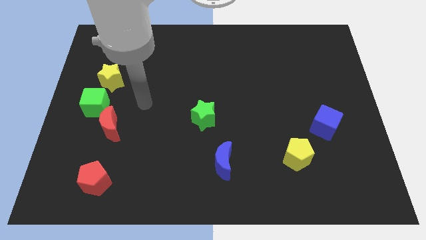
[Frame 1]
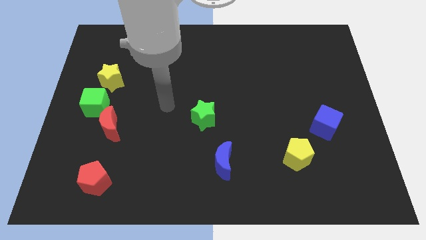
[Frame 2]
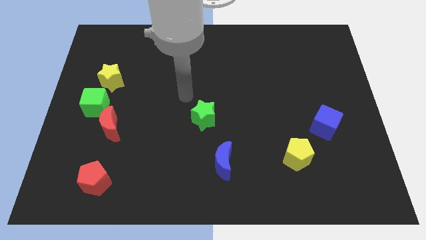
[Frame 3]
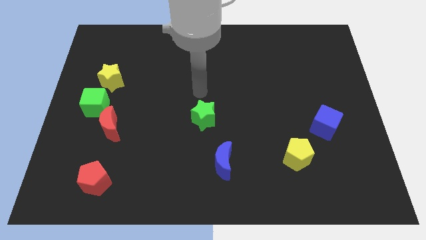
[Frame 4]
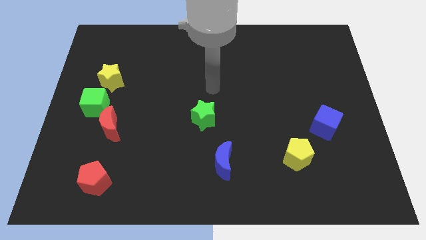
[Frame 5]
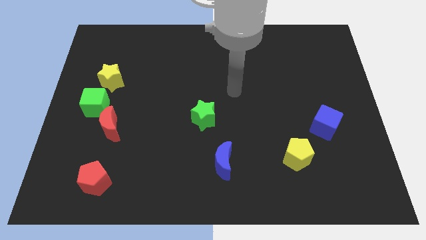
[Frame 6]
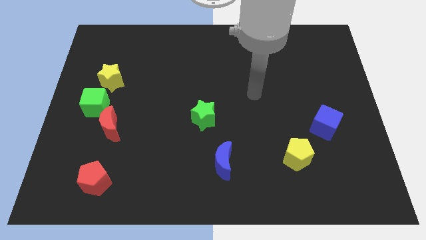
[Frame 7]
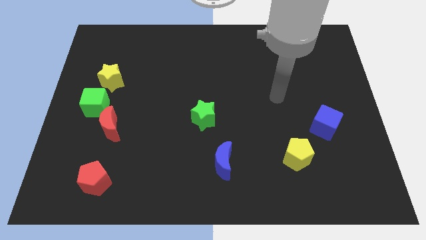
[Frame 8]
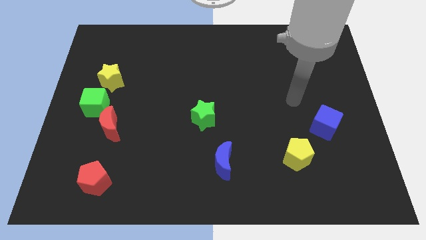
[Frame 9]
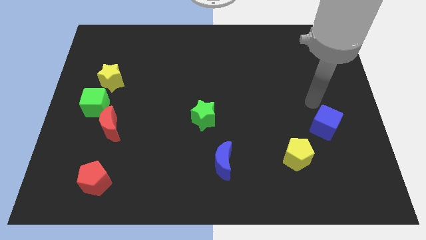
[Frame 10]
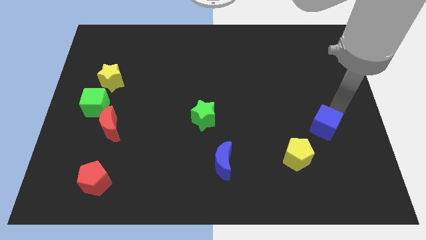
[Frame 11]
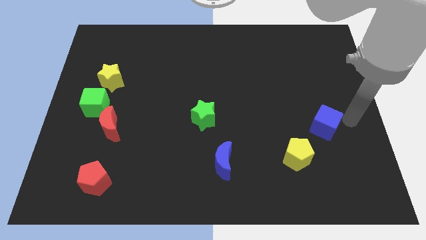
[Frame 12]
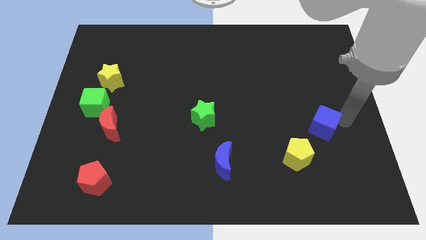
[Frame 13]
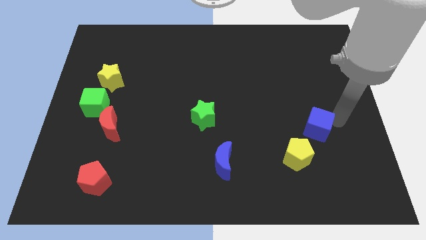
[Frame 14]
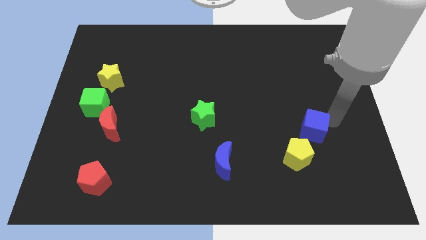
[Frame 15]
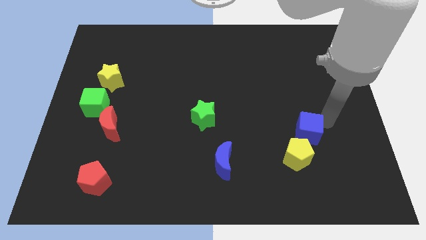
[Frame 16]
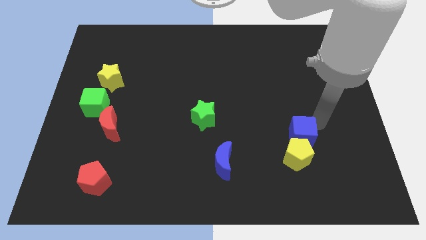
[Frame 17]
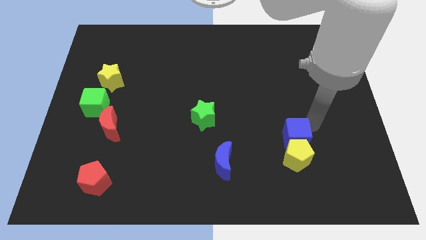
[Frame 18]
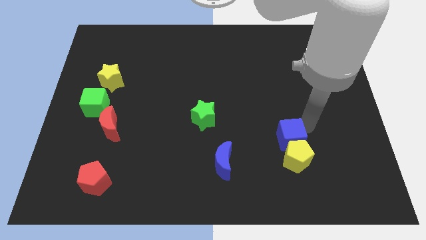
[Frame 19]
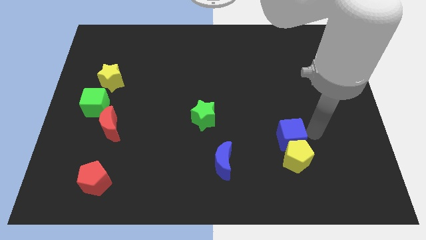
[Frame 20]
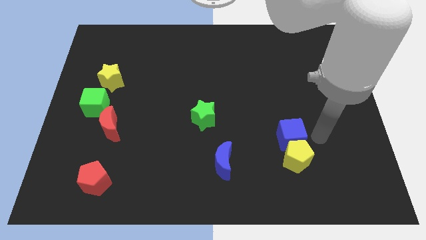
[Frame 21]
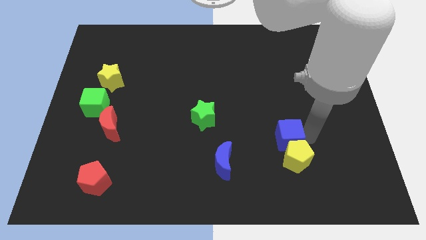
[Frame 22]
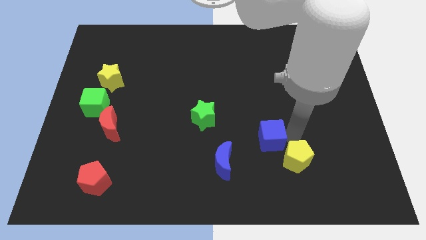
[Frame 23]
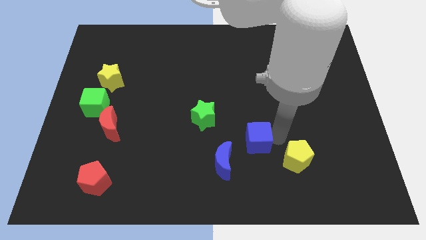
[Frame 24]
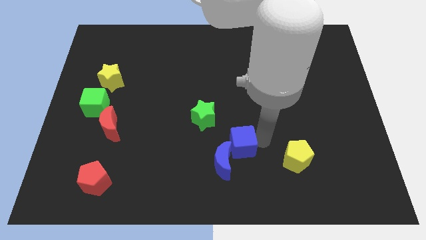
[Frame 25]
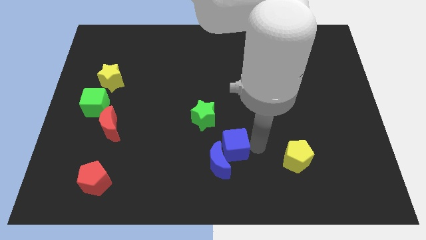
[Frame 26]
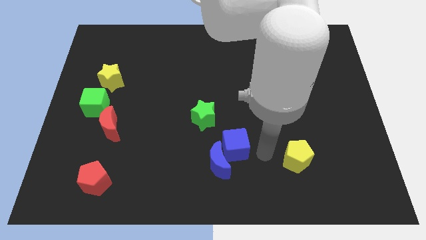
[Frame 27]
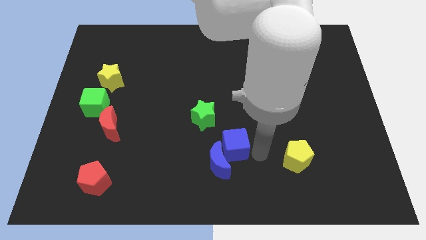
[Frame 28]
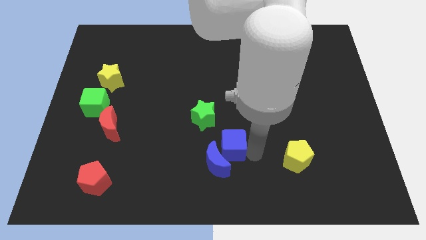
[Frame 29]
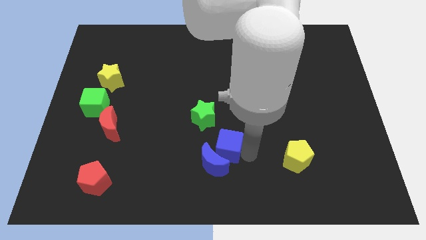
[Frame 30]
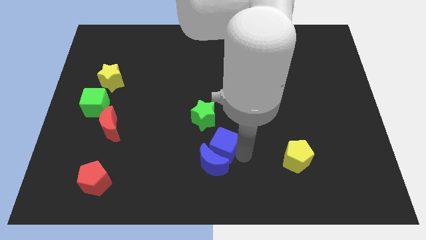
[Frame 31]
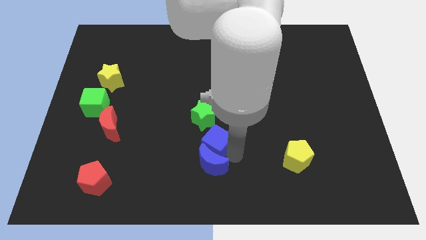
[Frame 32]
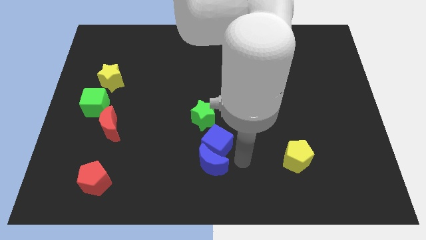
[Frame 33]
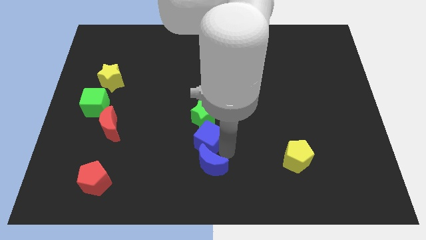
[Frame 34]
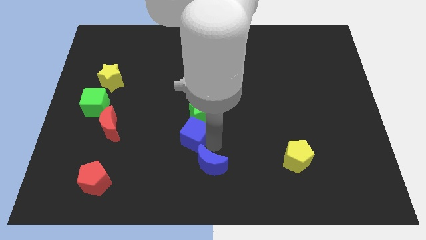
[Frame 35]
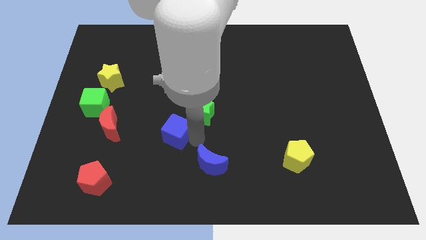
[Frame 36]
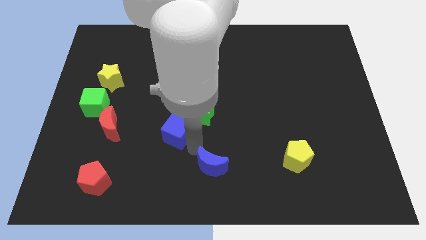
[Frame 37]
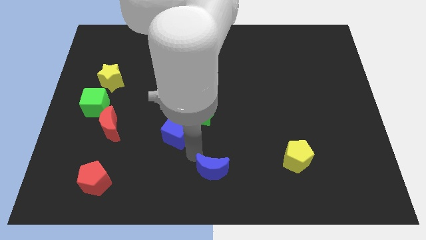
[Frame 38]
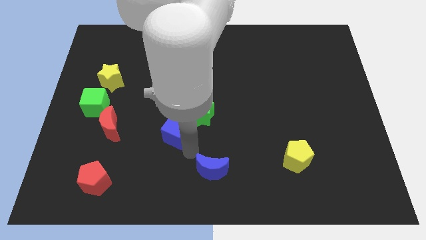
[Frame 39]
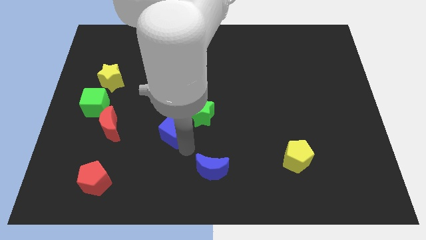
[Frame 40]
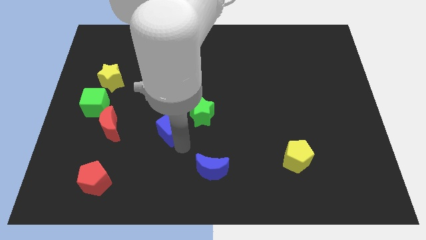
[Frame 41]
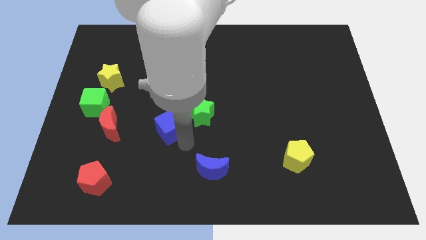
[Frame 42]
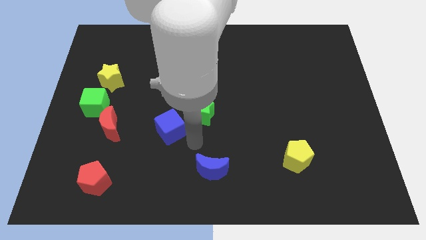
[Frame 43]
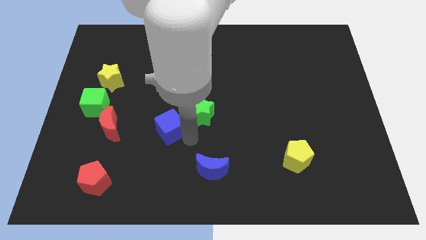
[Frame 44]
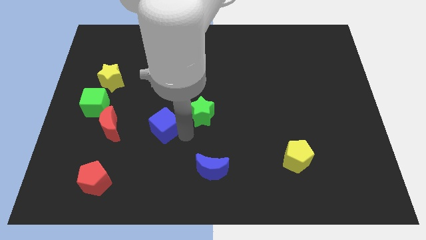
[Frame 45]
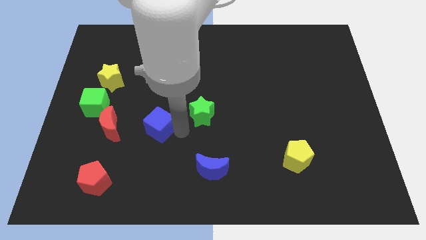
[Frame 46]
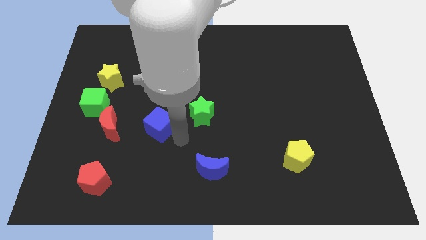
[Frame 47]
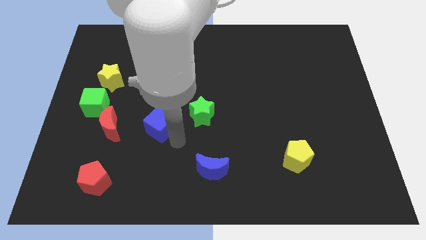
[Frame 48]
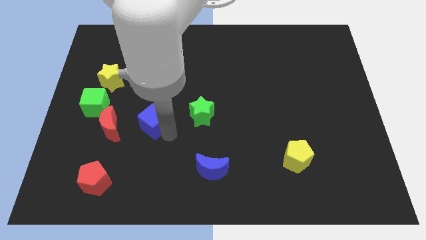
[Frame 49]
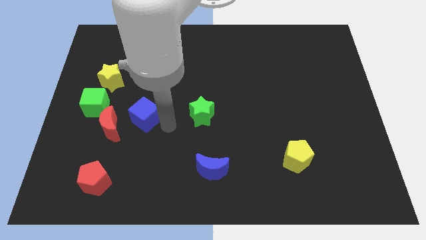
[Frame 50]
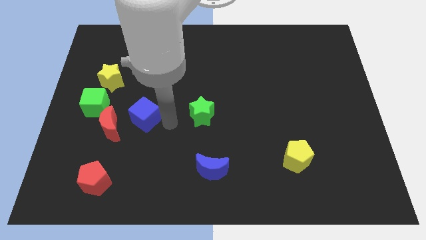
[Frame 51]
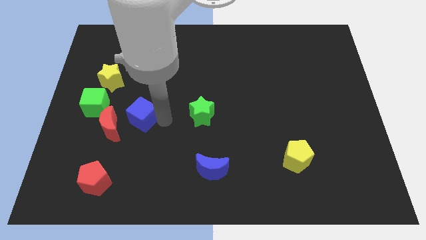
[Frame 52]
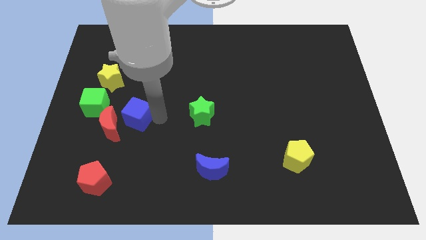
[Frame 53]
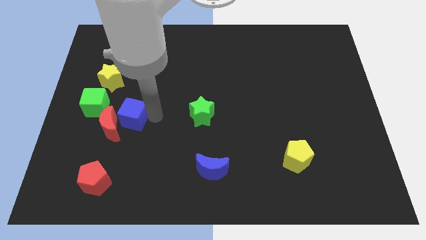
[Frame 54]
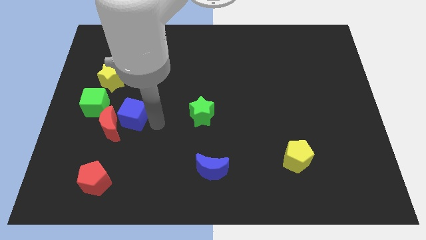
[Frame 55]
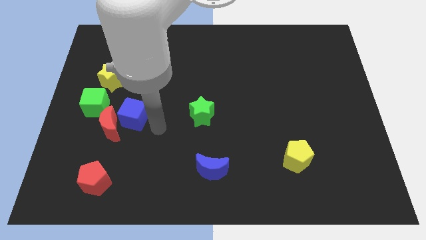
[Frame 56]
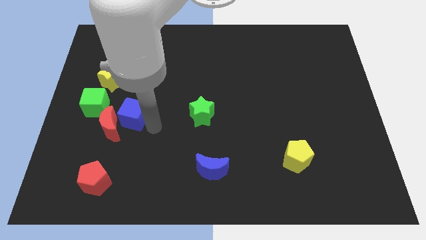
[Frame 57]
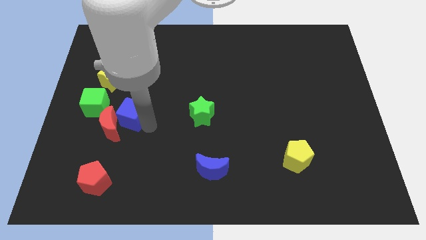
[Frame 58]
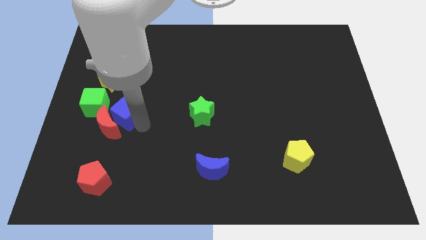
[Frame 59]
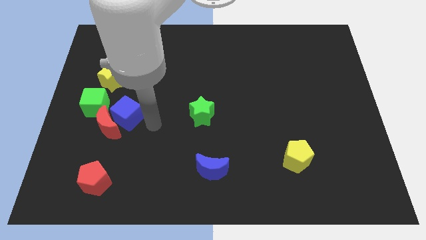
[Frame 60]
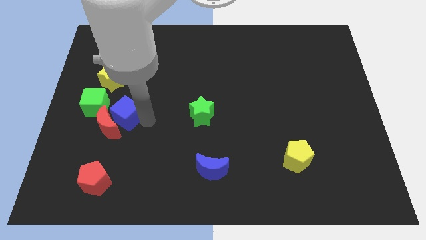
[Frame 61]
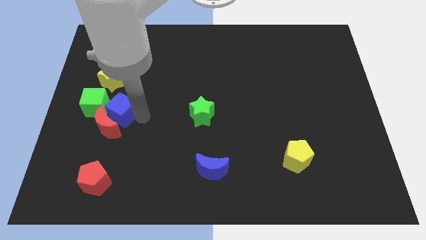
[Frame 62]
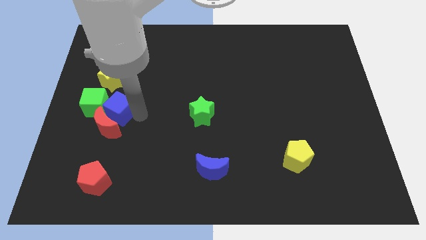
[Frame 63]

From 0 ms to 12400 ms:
slide the blue cube towards the green cube

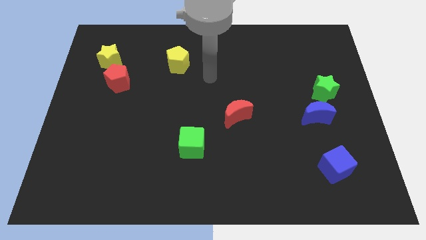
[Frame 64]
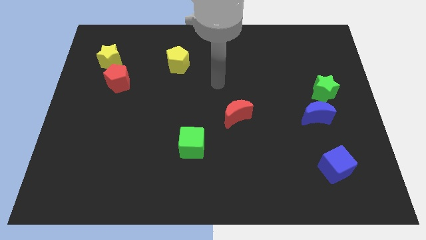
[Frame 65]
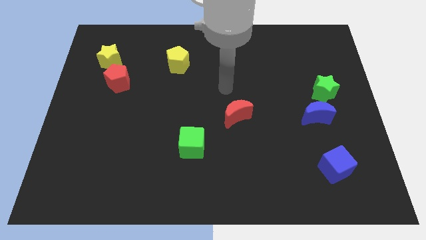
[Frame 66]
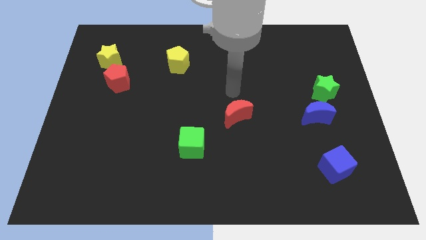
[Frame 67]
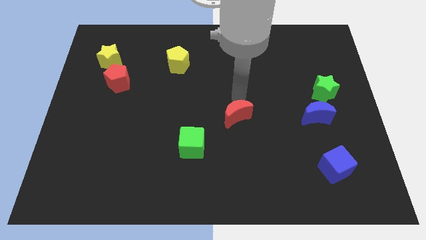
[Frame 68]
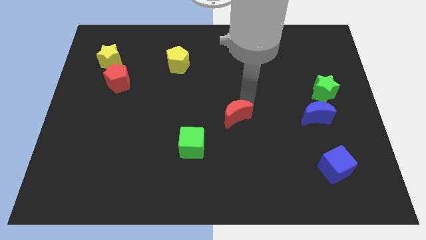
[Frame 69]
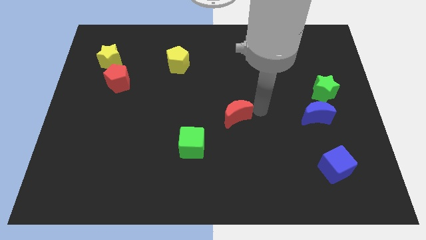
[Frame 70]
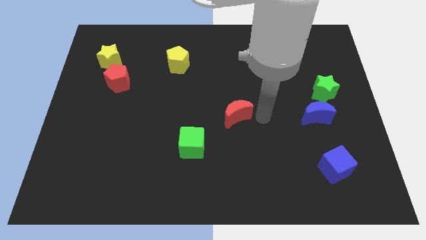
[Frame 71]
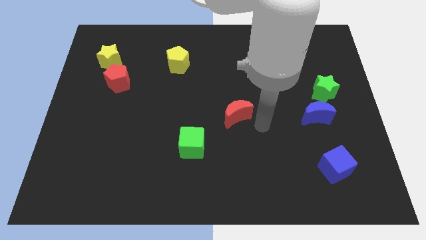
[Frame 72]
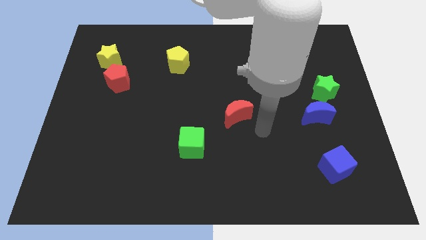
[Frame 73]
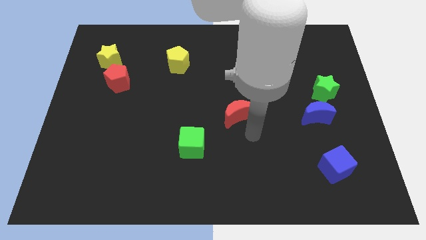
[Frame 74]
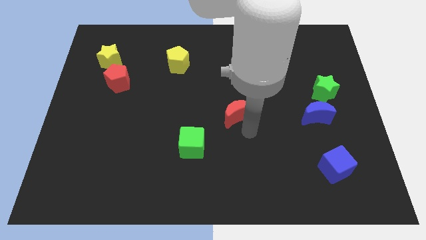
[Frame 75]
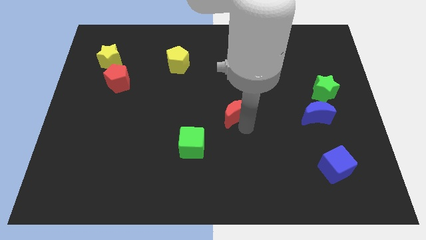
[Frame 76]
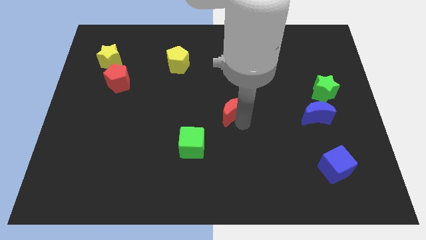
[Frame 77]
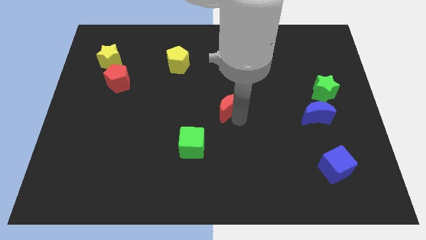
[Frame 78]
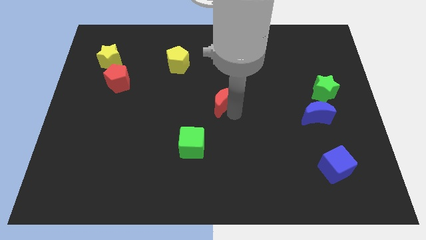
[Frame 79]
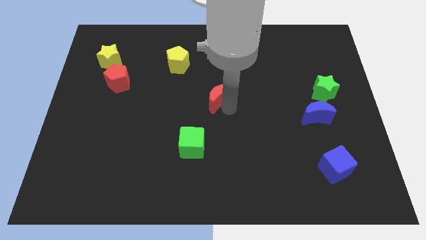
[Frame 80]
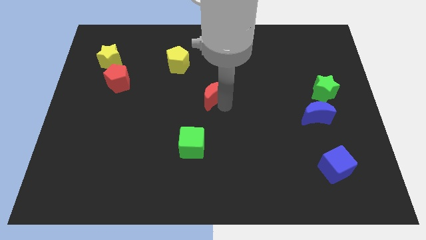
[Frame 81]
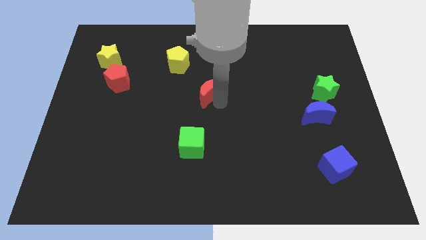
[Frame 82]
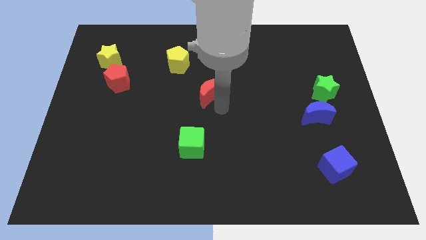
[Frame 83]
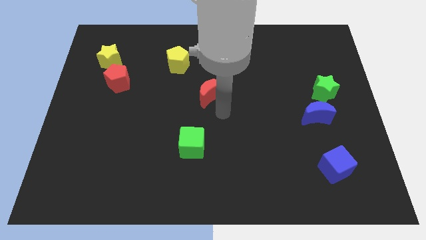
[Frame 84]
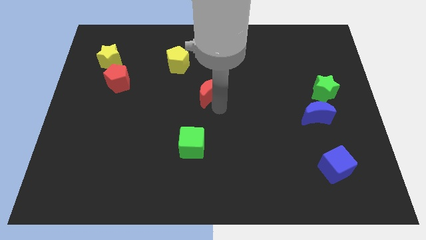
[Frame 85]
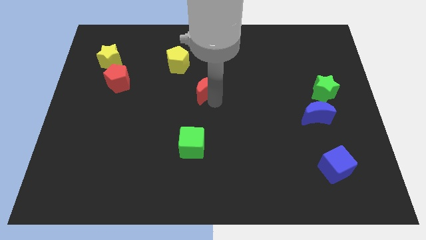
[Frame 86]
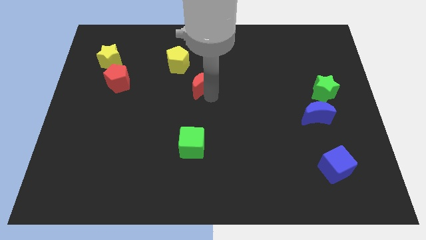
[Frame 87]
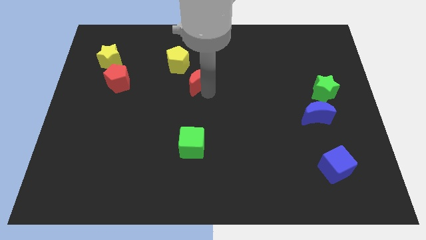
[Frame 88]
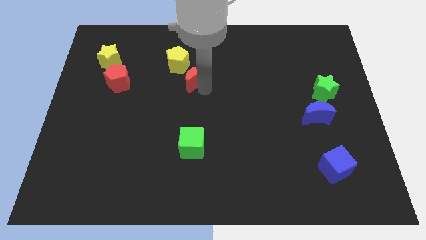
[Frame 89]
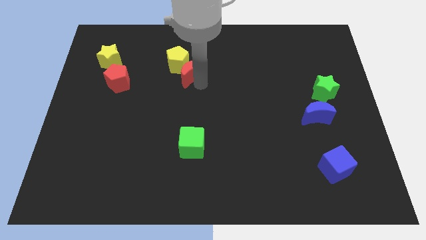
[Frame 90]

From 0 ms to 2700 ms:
slide the red moon towards the yellow pentagon
